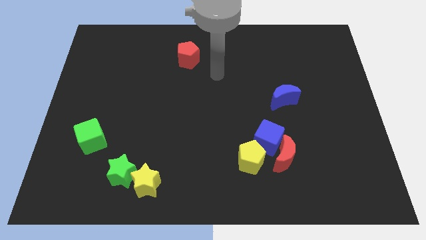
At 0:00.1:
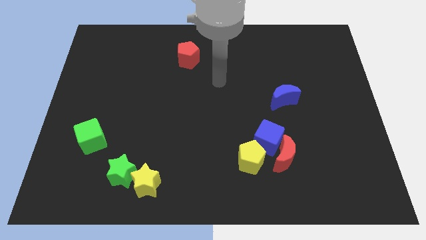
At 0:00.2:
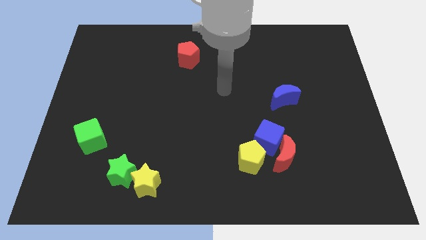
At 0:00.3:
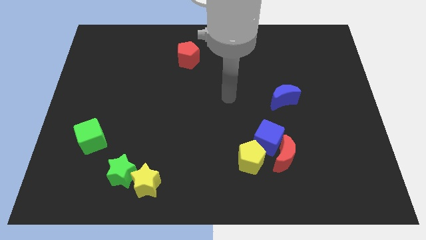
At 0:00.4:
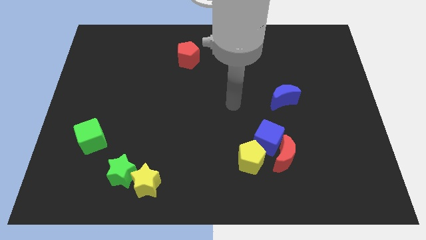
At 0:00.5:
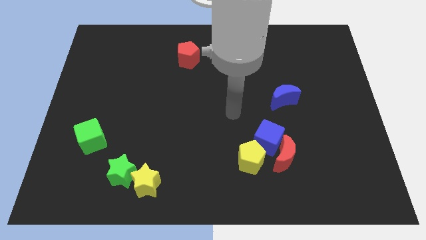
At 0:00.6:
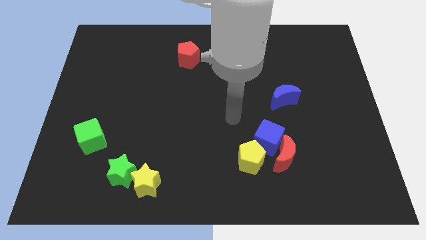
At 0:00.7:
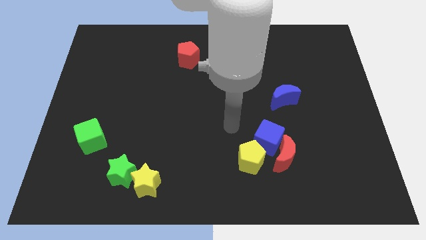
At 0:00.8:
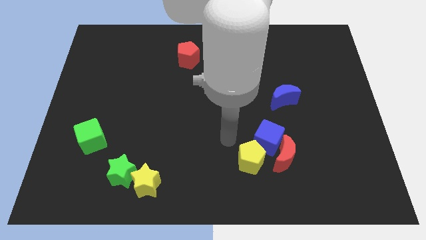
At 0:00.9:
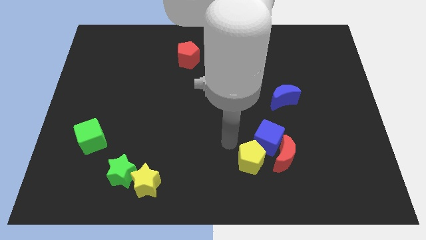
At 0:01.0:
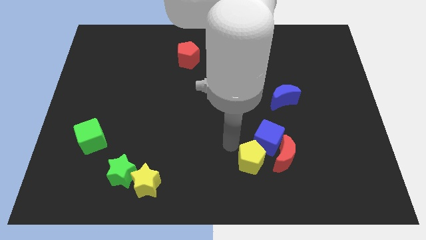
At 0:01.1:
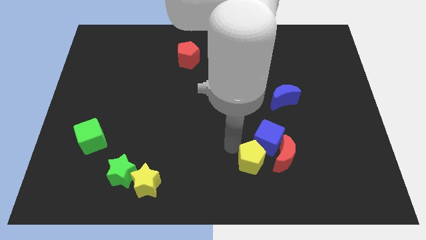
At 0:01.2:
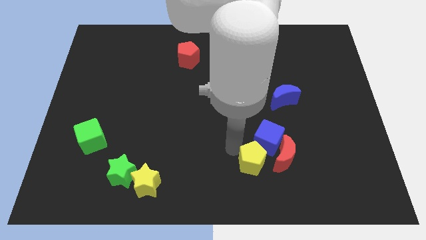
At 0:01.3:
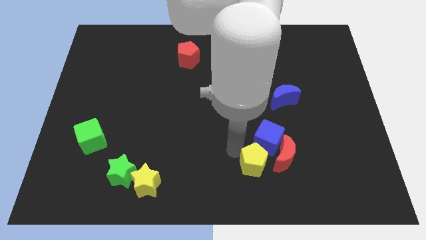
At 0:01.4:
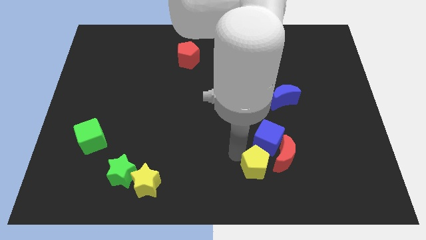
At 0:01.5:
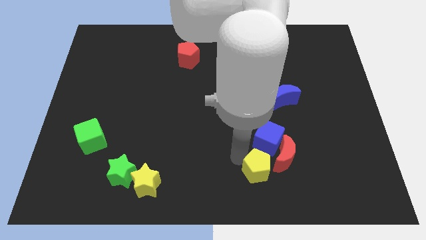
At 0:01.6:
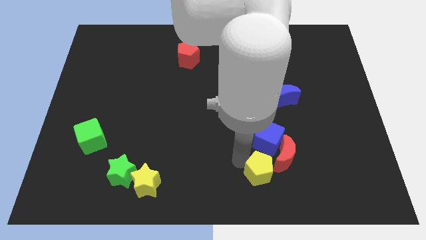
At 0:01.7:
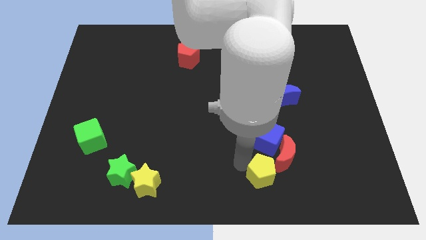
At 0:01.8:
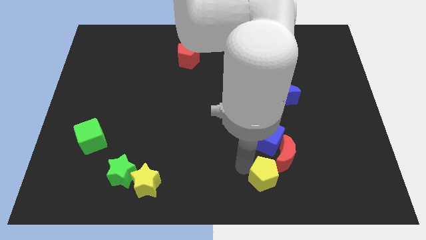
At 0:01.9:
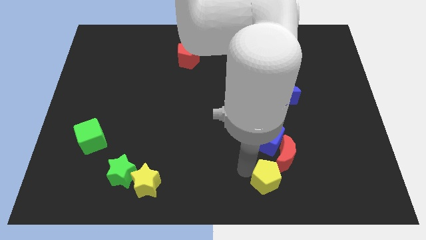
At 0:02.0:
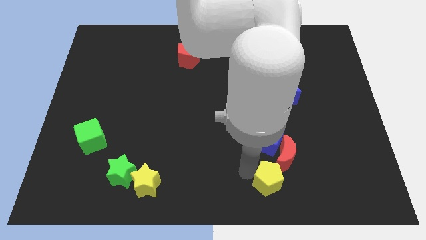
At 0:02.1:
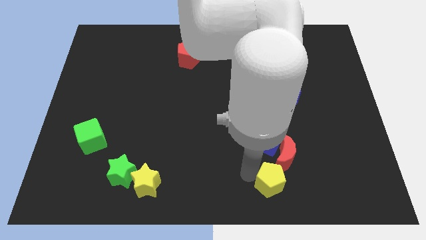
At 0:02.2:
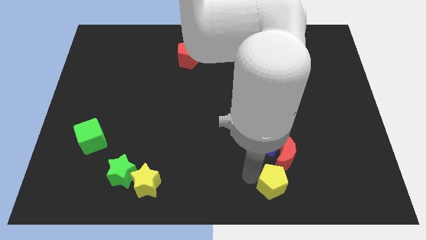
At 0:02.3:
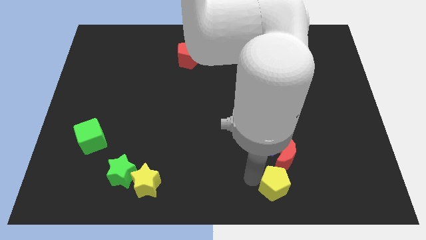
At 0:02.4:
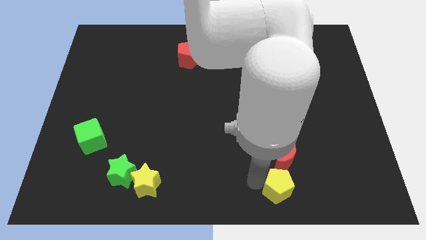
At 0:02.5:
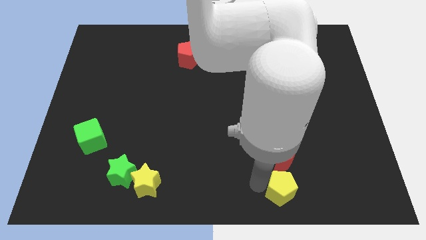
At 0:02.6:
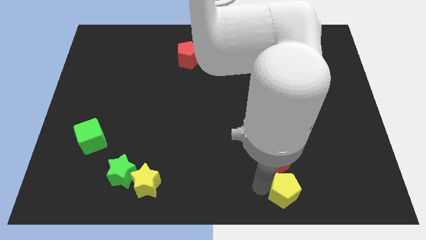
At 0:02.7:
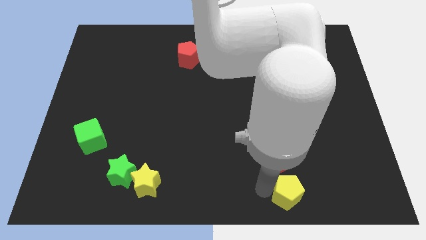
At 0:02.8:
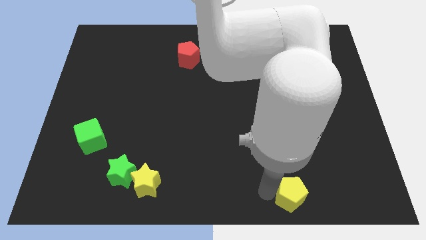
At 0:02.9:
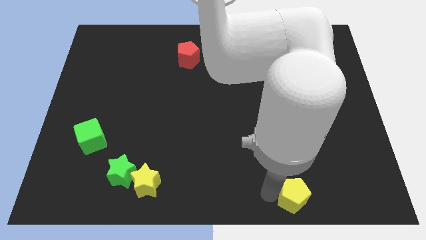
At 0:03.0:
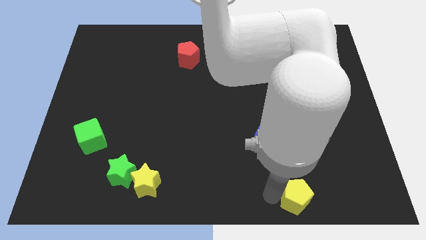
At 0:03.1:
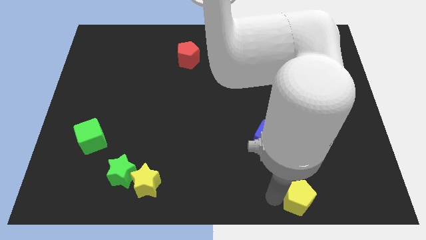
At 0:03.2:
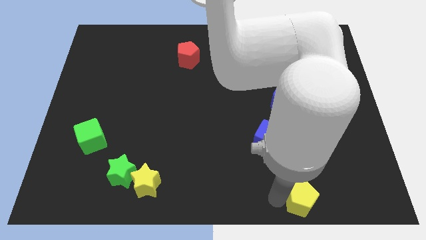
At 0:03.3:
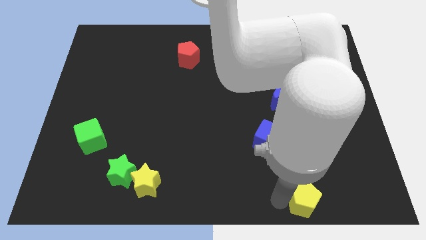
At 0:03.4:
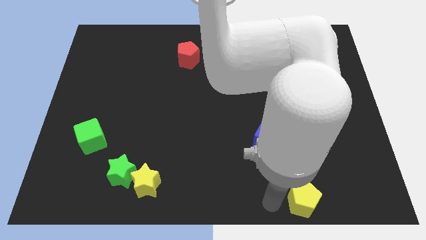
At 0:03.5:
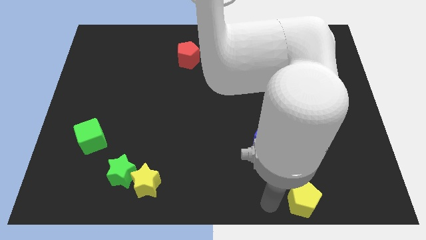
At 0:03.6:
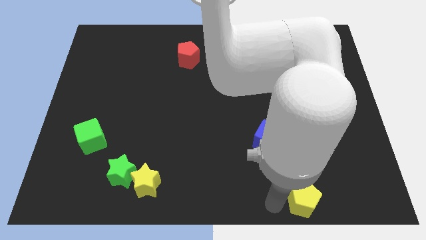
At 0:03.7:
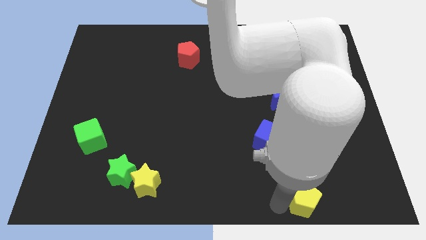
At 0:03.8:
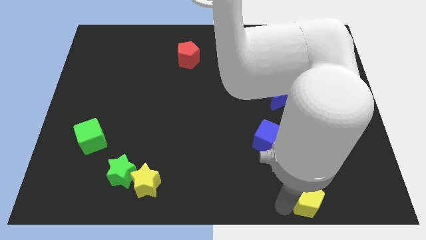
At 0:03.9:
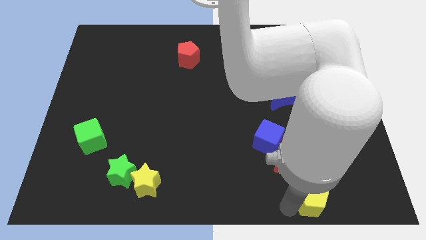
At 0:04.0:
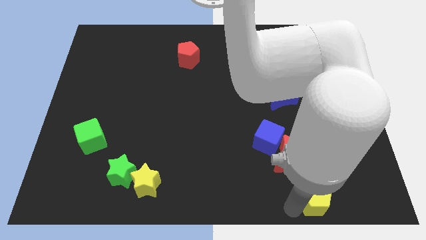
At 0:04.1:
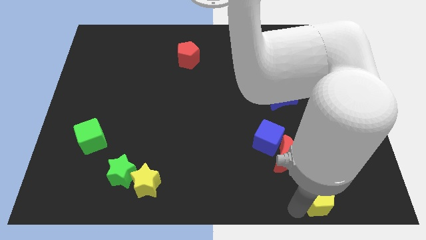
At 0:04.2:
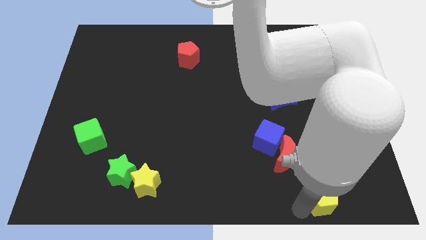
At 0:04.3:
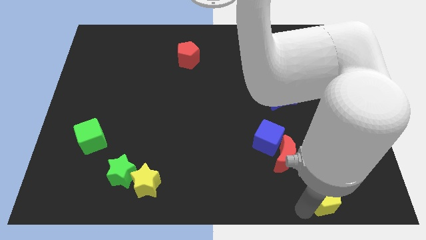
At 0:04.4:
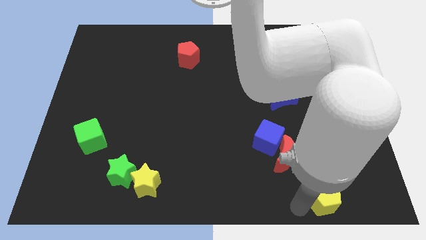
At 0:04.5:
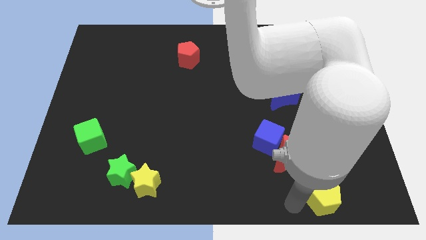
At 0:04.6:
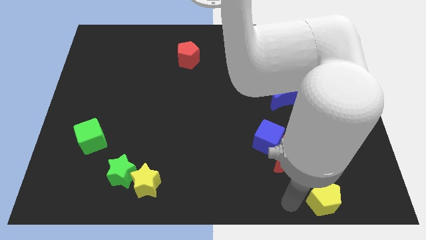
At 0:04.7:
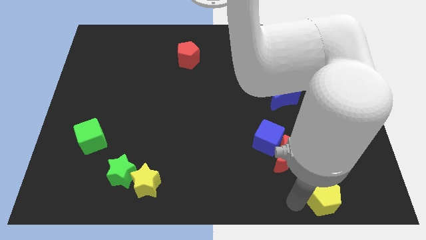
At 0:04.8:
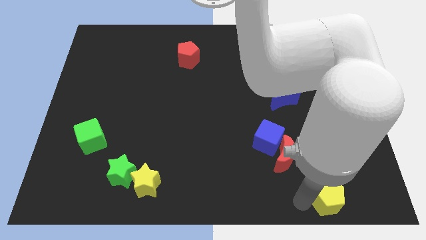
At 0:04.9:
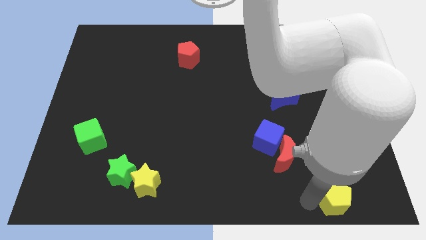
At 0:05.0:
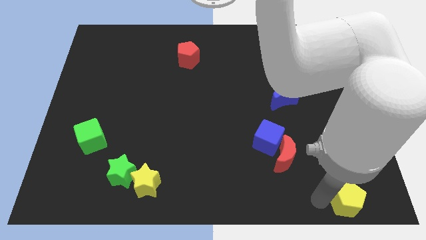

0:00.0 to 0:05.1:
move the yellow pentagon to the bottom right corner

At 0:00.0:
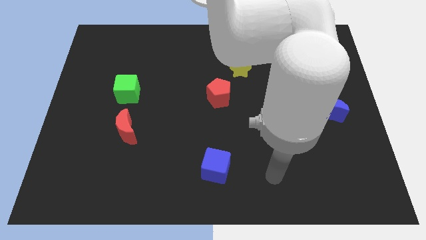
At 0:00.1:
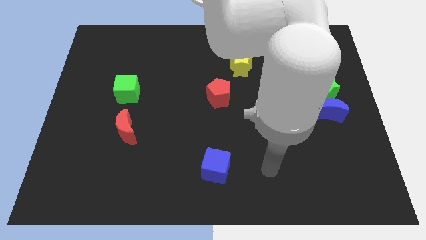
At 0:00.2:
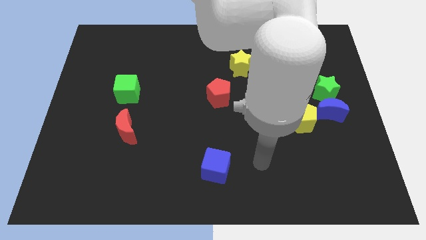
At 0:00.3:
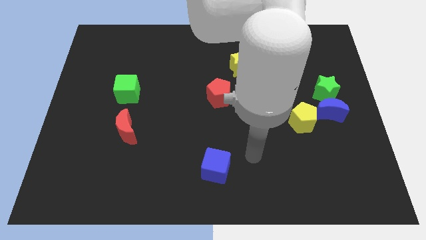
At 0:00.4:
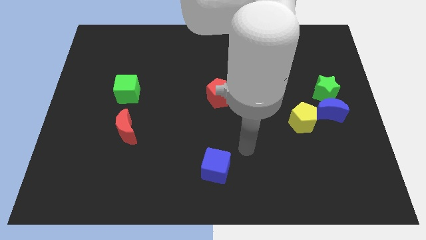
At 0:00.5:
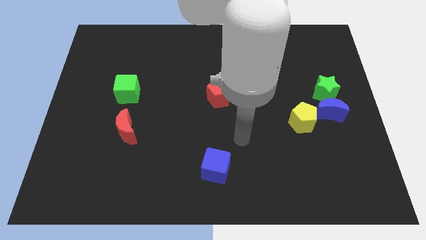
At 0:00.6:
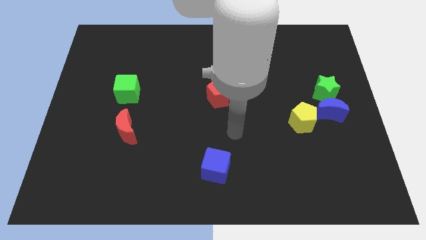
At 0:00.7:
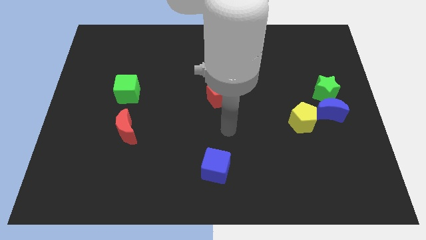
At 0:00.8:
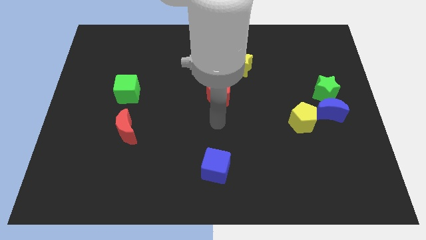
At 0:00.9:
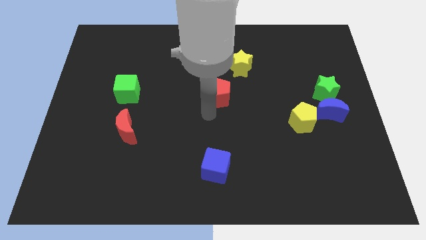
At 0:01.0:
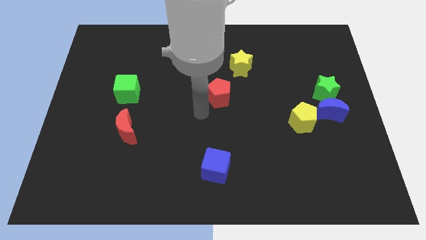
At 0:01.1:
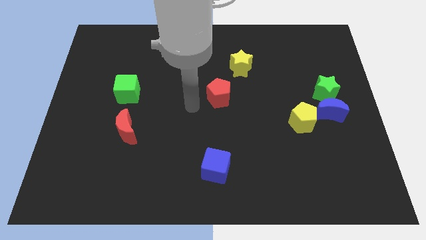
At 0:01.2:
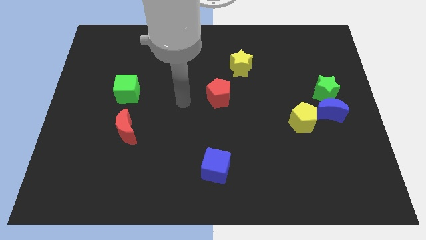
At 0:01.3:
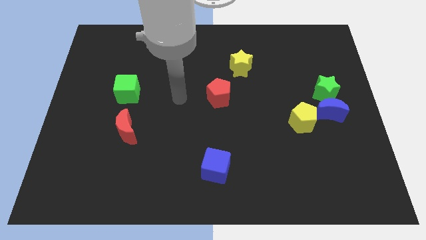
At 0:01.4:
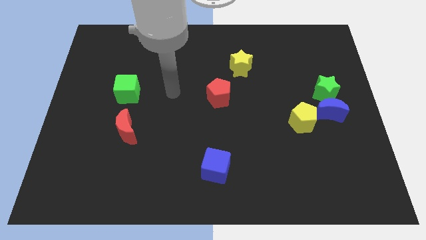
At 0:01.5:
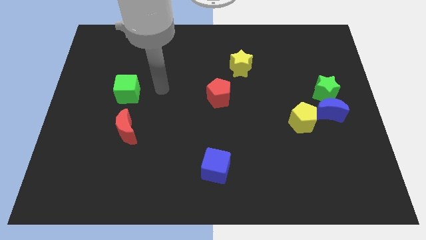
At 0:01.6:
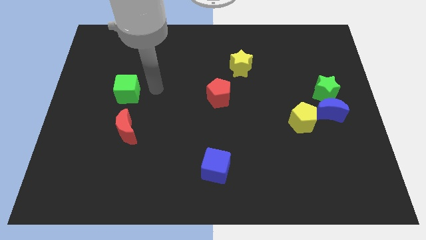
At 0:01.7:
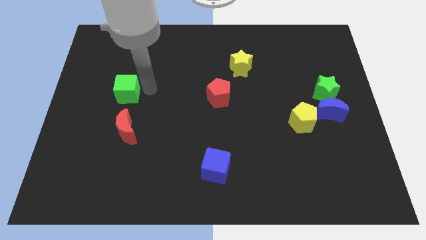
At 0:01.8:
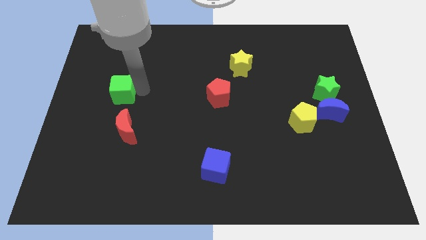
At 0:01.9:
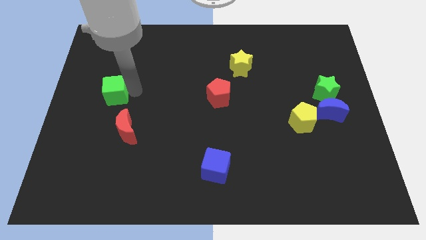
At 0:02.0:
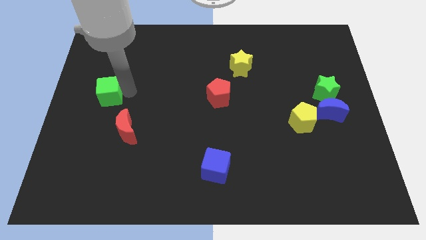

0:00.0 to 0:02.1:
move the green cube to the left side of the board

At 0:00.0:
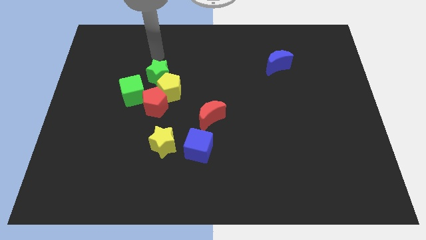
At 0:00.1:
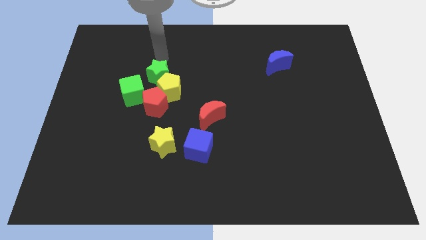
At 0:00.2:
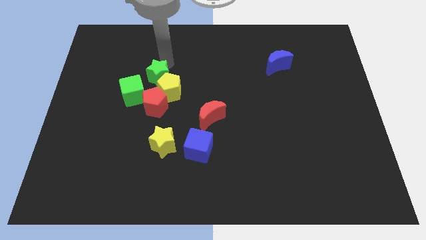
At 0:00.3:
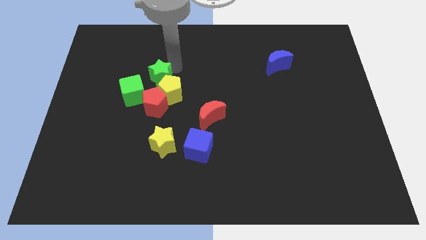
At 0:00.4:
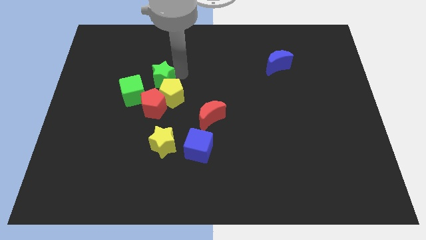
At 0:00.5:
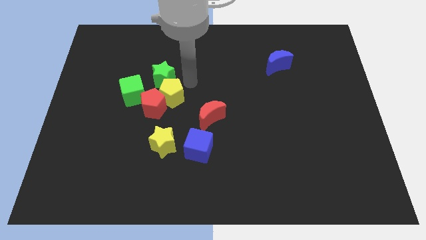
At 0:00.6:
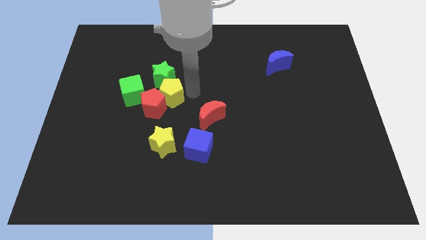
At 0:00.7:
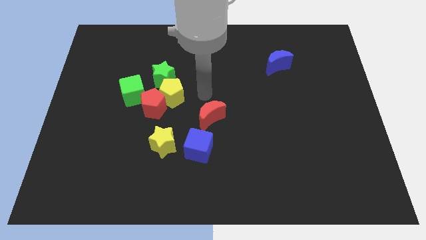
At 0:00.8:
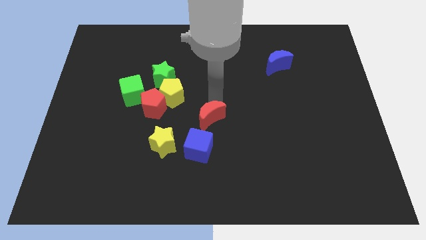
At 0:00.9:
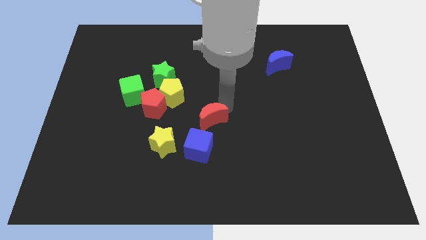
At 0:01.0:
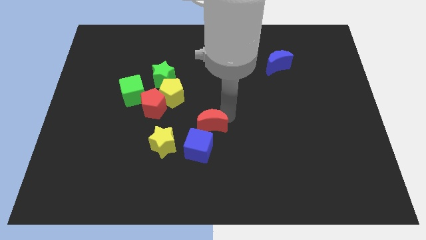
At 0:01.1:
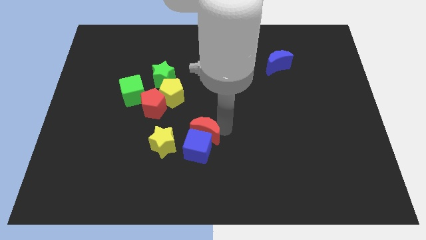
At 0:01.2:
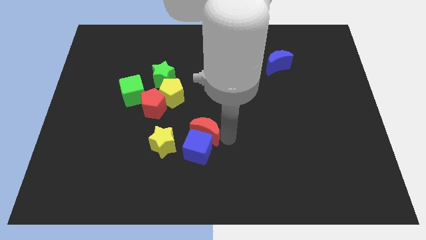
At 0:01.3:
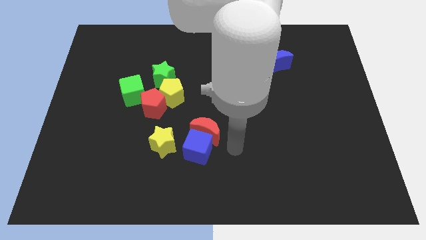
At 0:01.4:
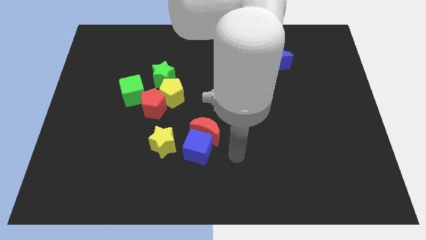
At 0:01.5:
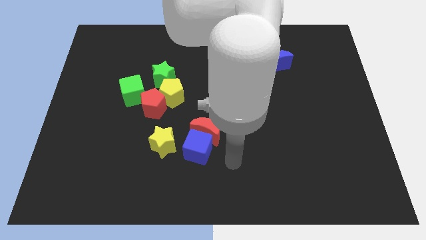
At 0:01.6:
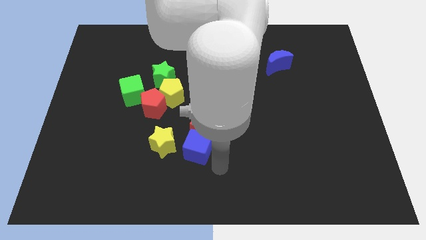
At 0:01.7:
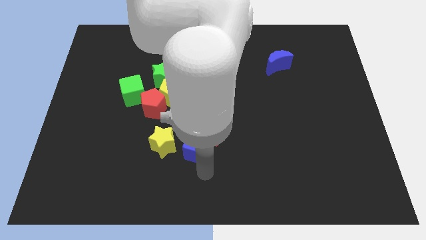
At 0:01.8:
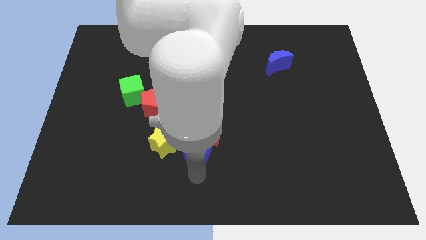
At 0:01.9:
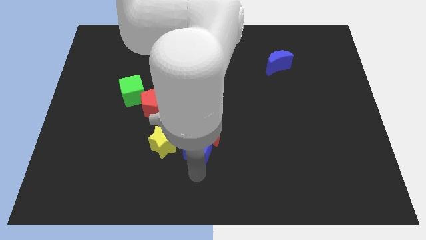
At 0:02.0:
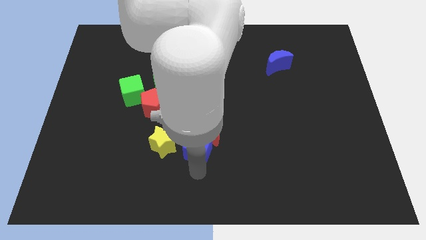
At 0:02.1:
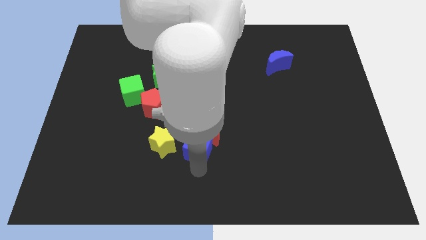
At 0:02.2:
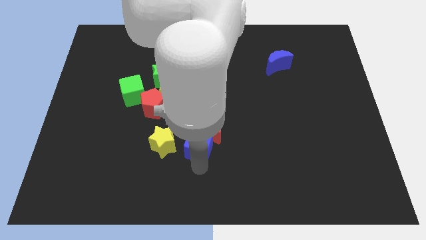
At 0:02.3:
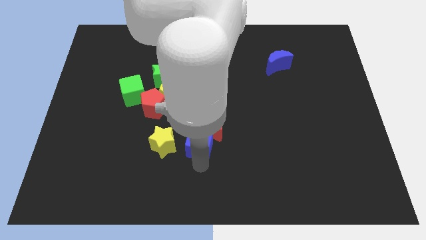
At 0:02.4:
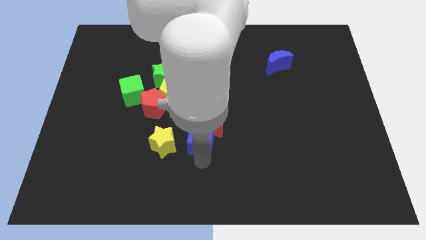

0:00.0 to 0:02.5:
push the blue cube to the middle
